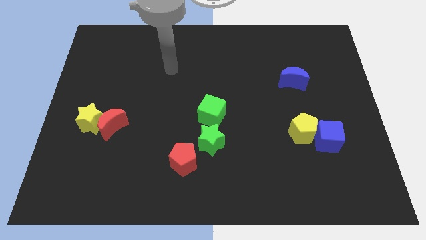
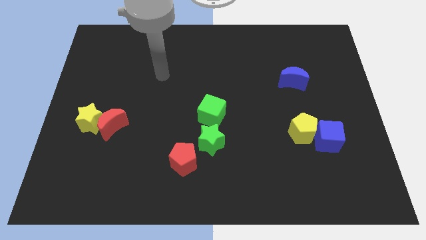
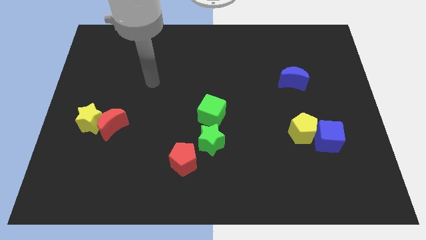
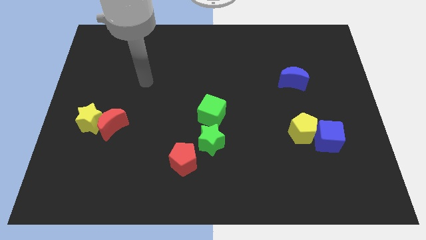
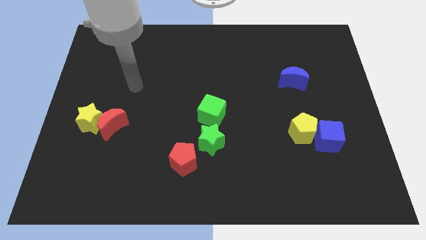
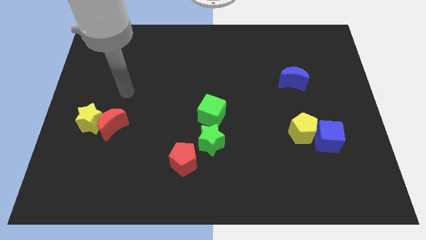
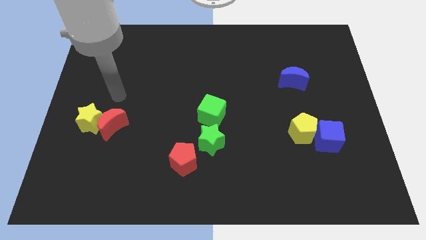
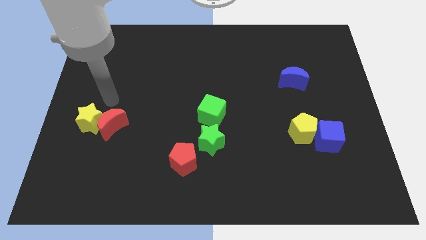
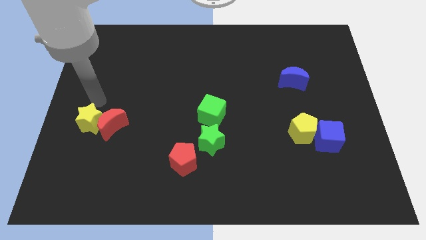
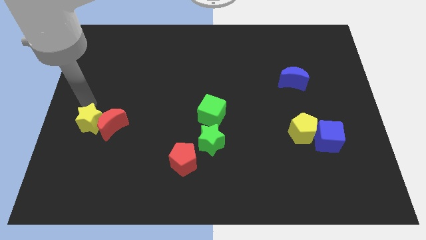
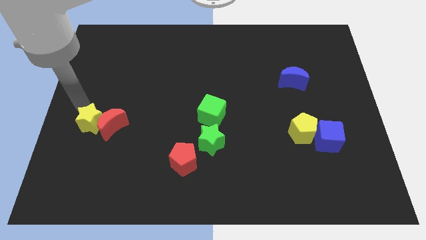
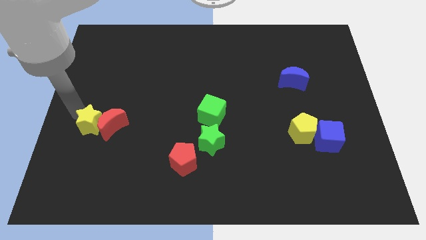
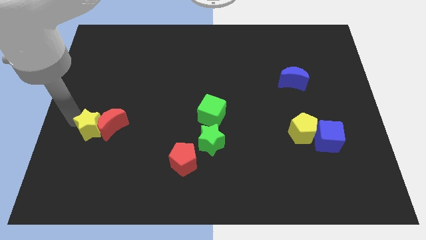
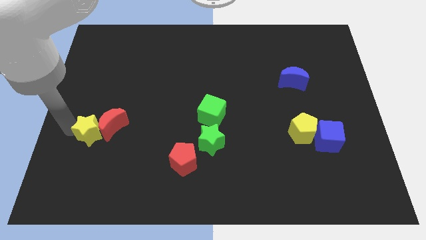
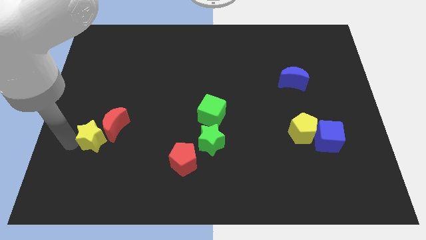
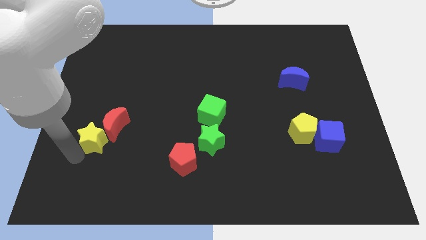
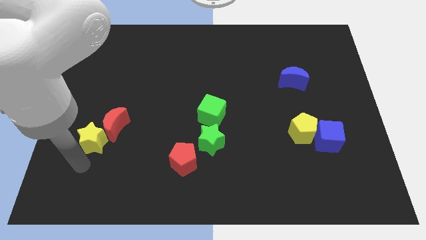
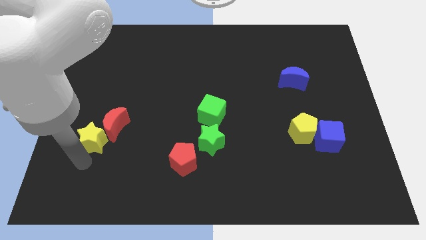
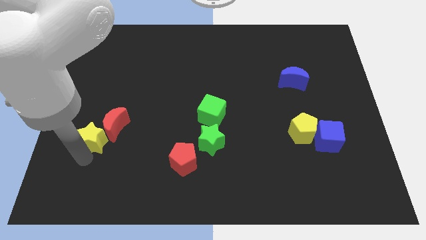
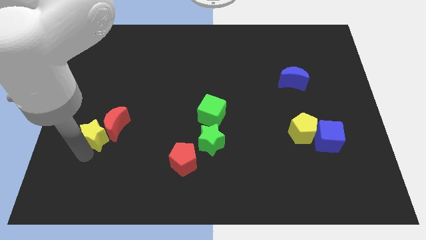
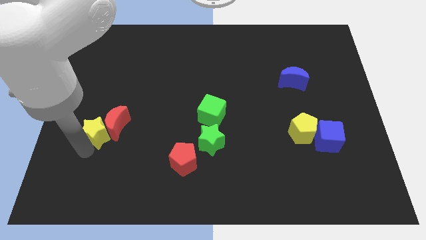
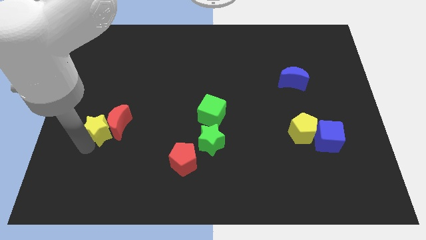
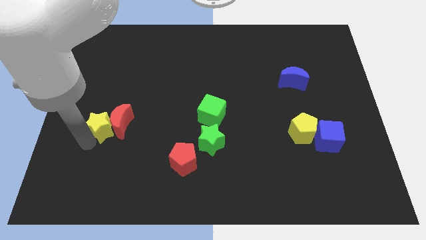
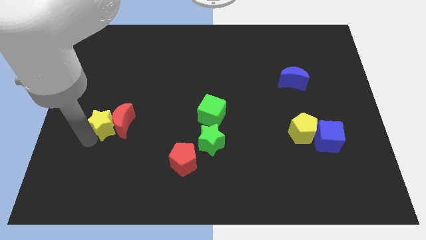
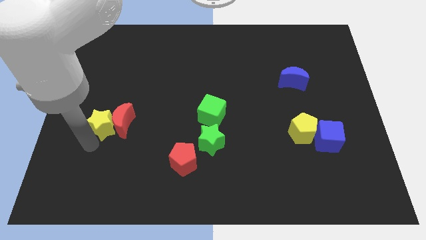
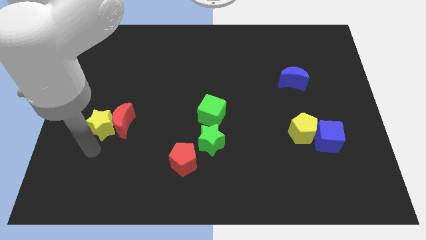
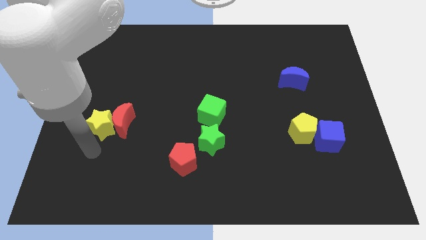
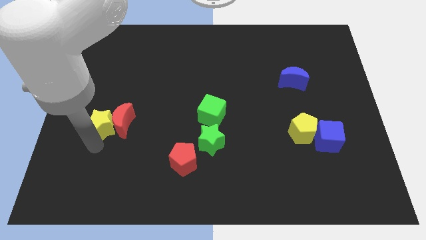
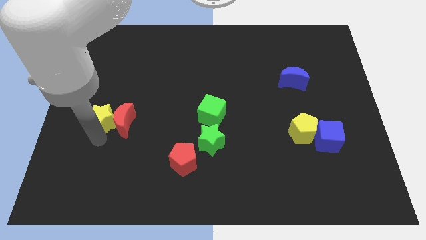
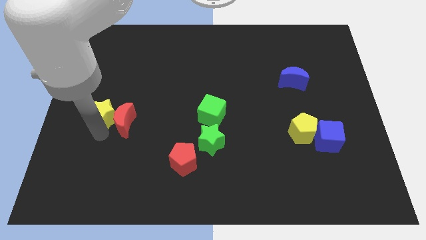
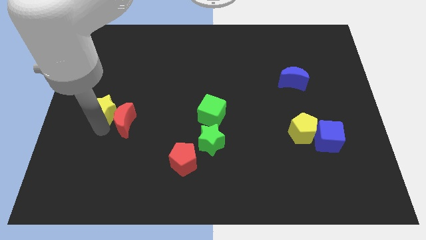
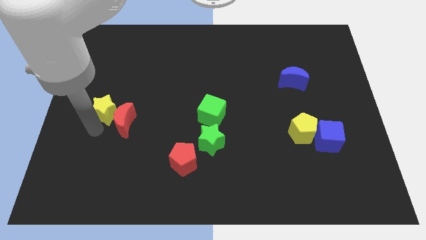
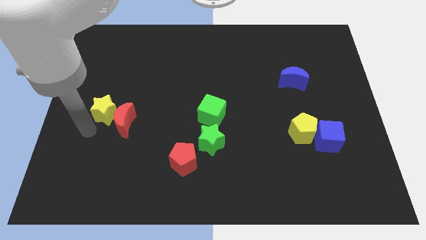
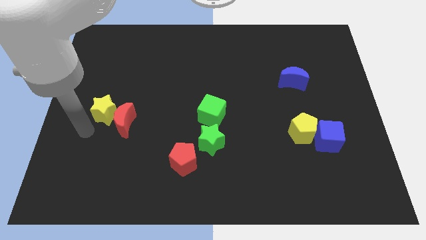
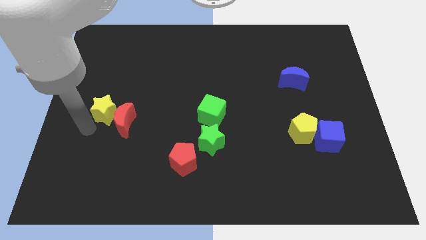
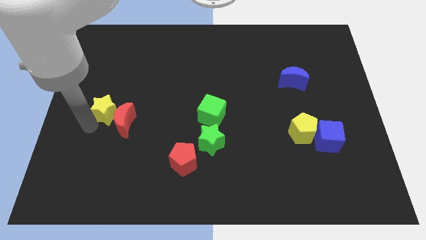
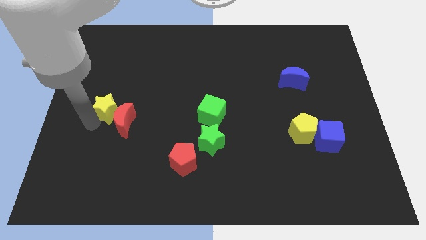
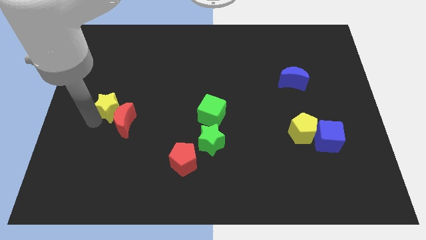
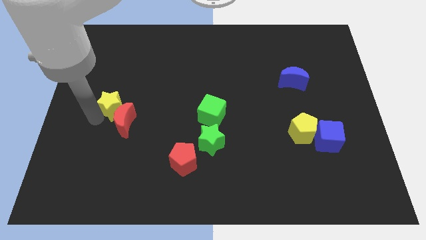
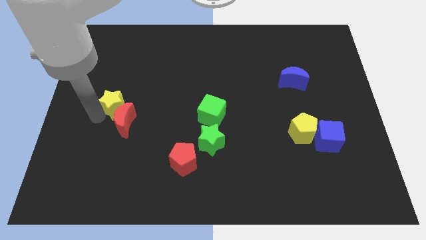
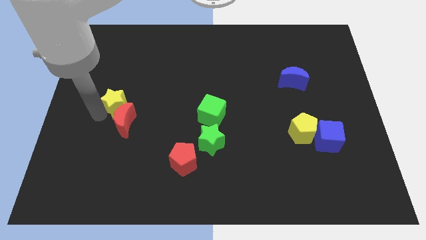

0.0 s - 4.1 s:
move the yellow star upwards and right diagonally a bit

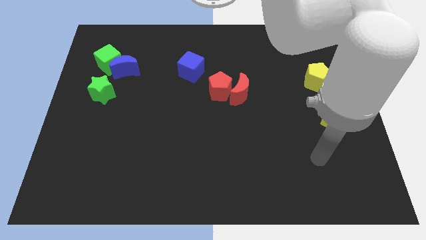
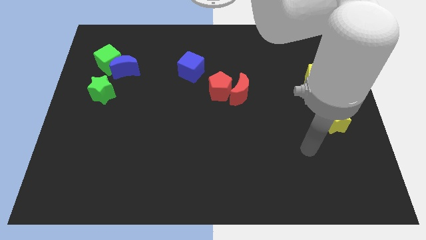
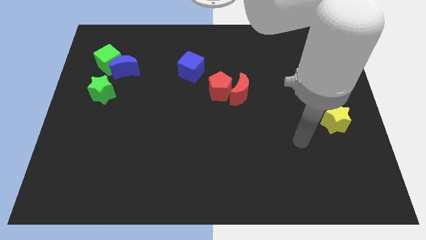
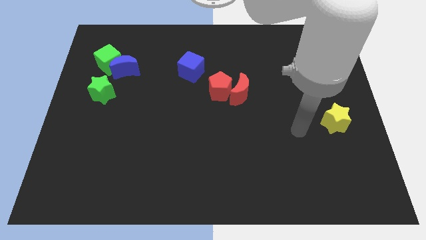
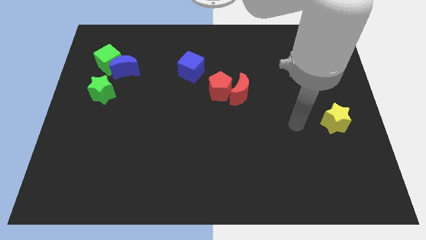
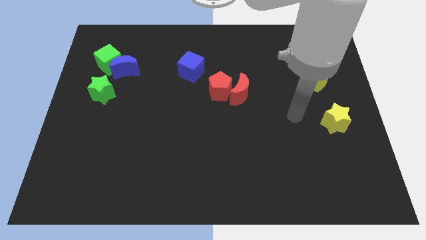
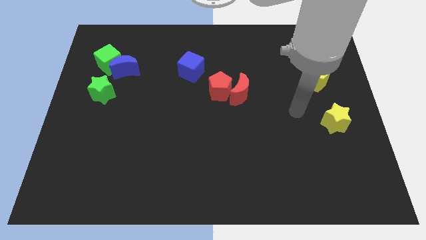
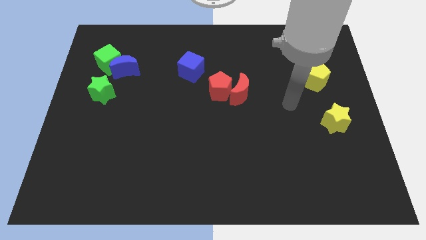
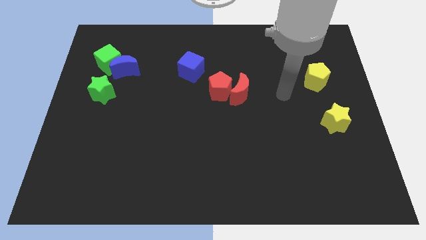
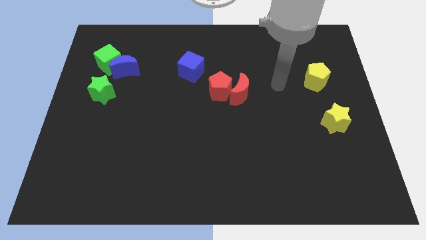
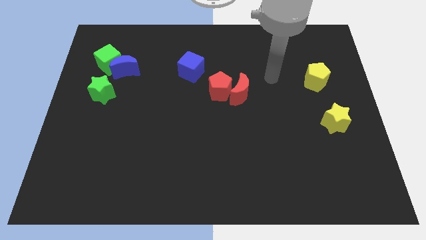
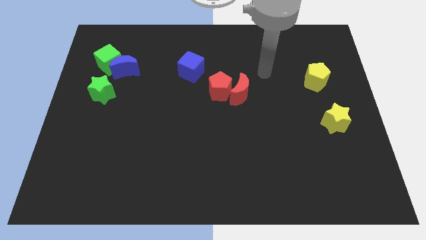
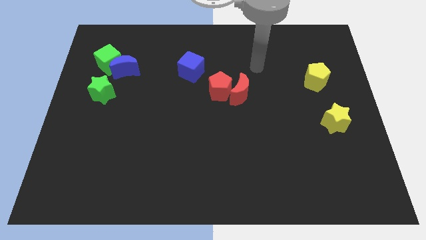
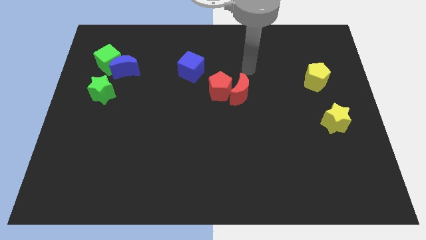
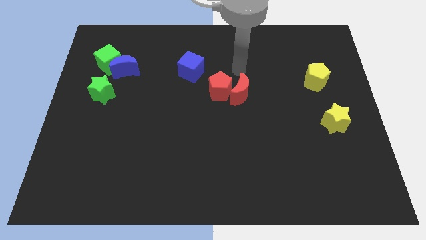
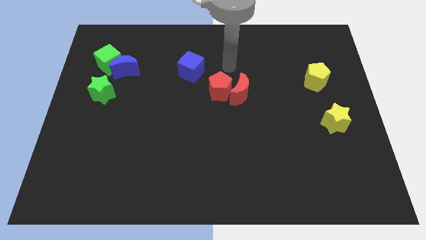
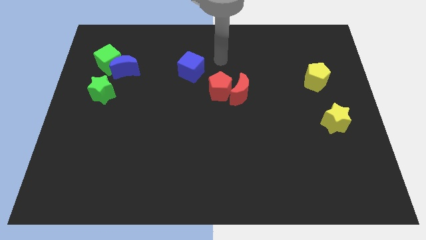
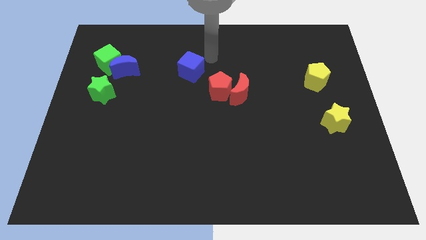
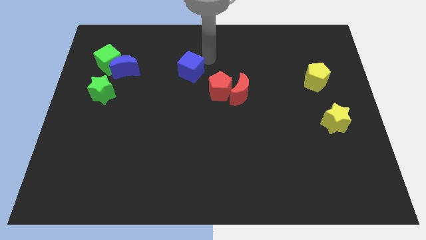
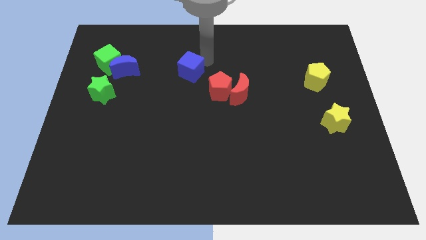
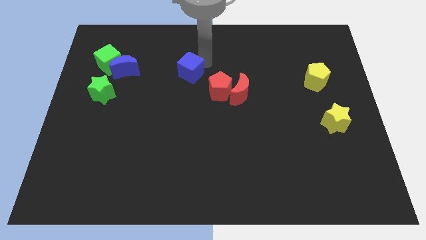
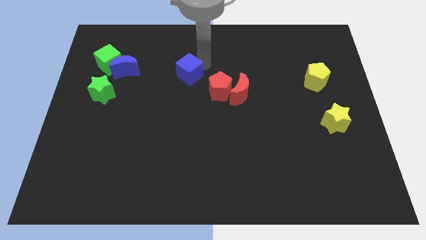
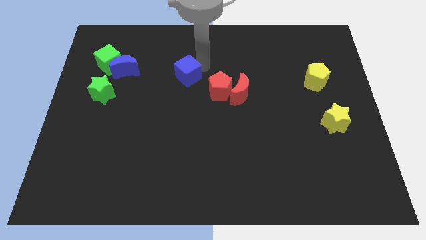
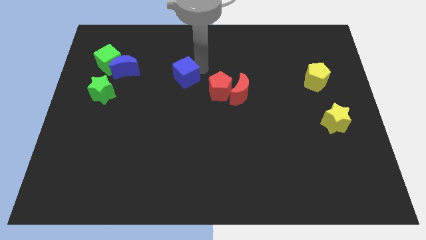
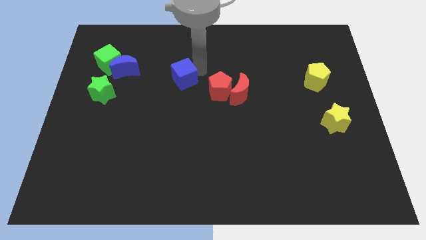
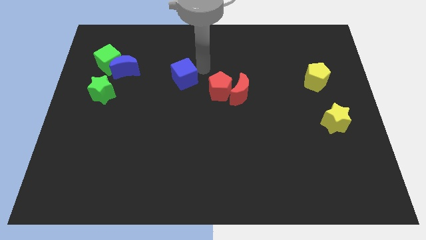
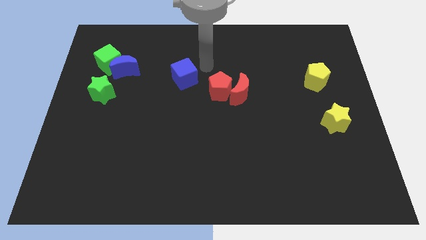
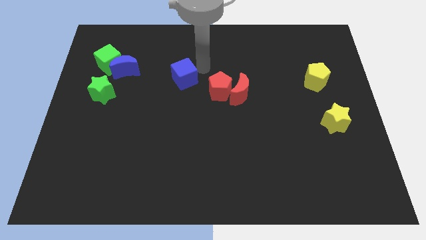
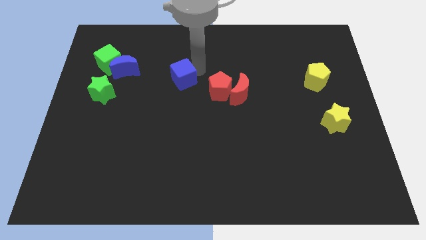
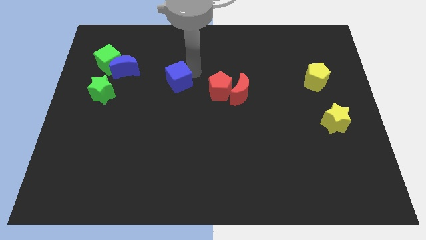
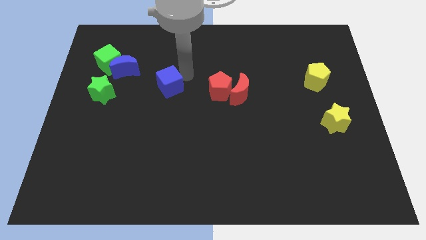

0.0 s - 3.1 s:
move the blue cube down and to the left slightly

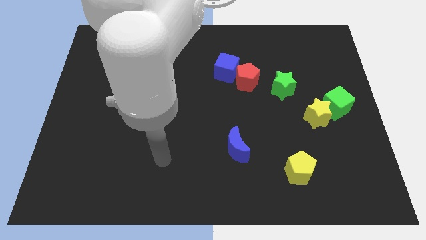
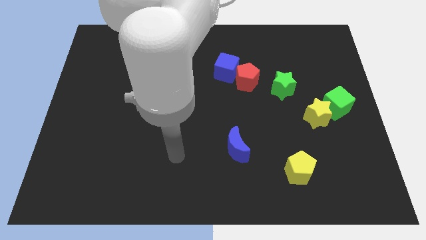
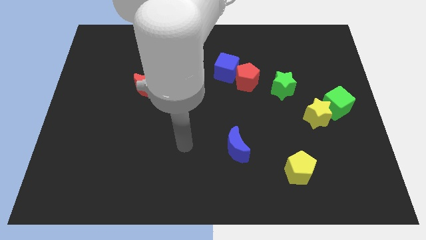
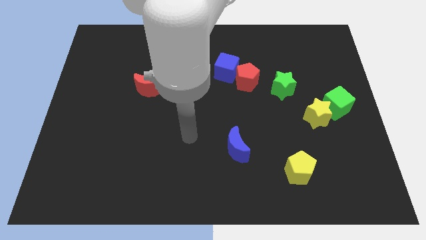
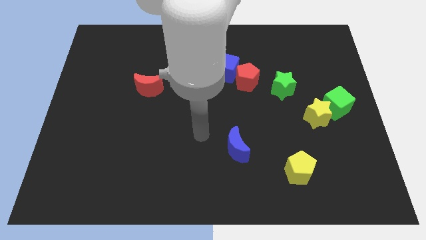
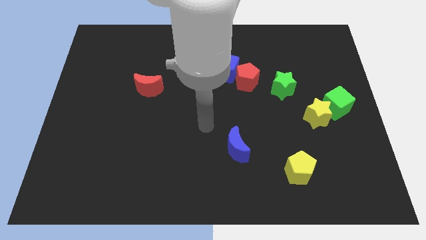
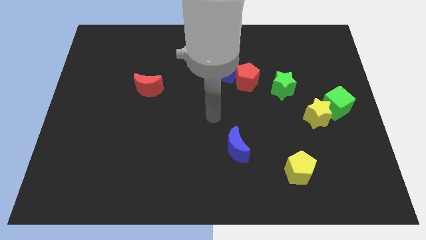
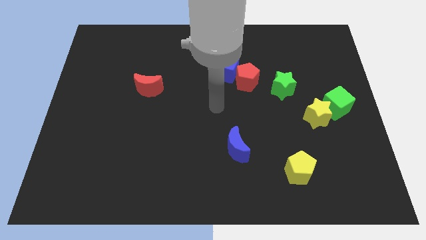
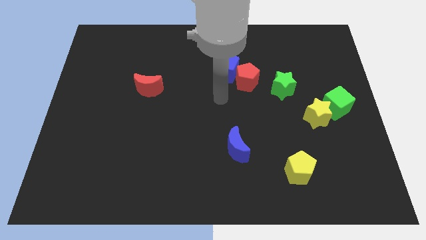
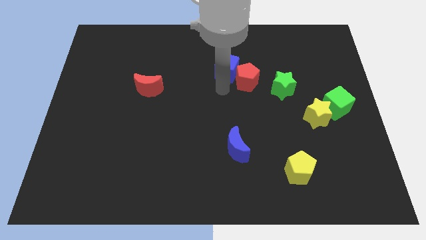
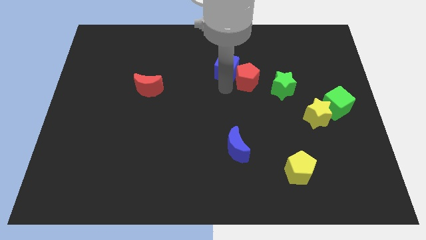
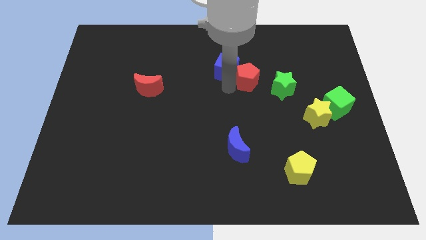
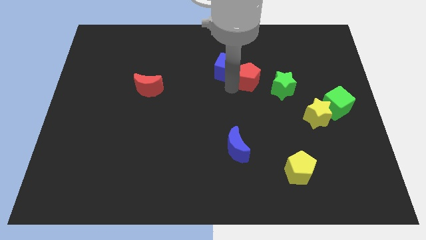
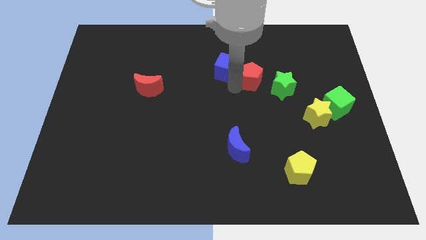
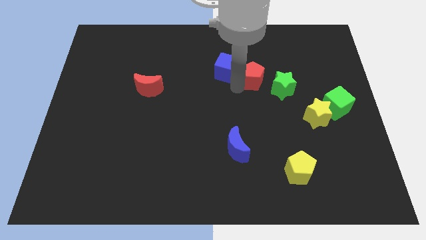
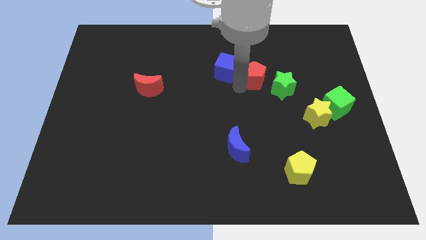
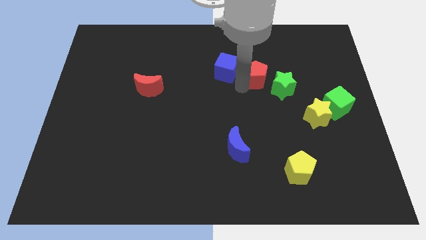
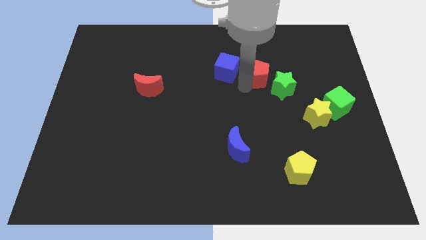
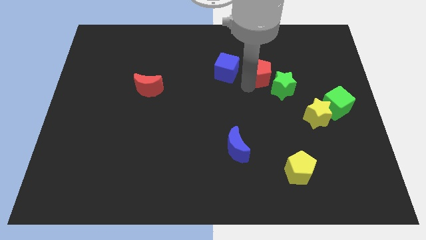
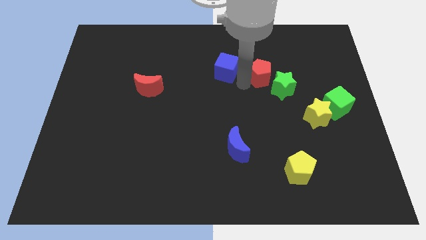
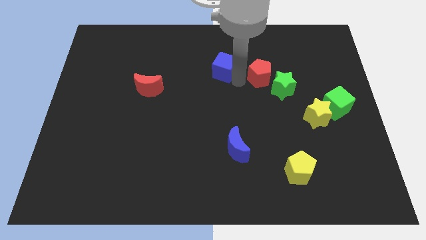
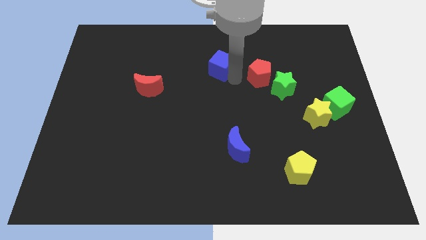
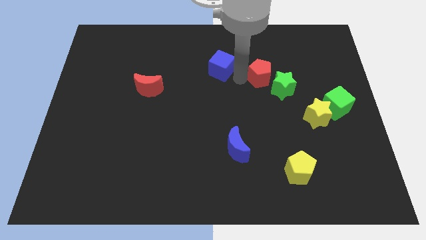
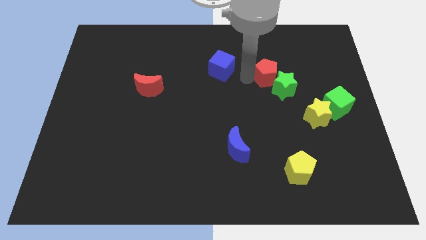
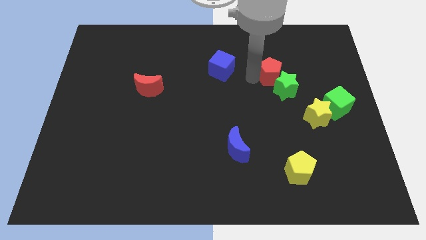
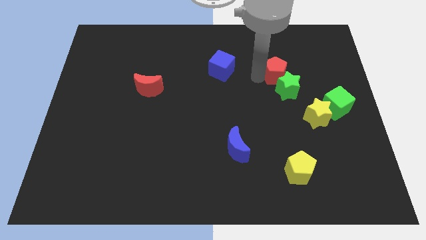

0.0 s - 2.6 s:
slide the red pentagon somewhat right
